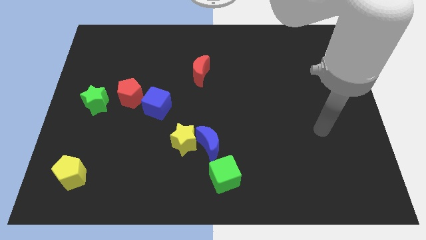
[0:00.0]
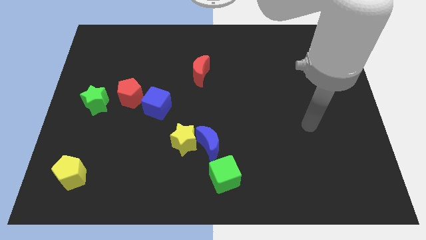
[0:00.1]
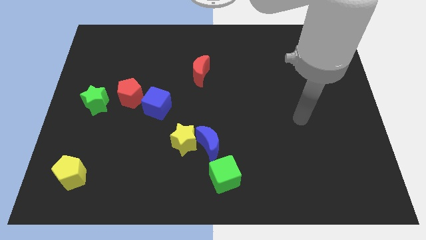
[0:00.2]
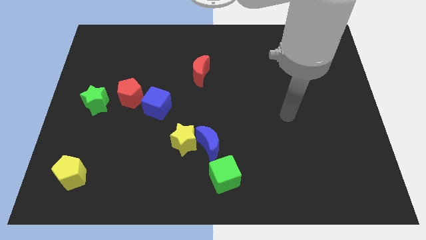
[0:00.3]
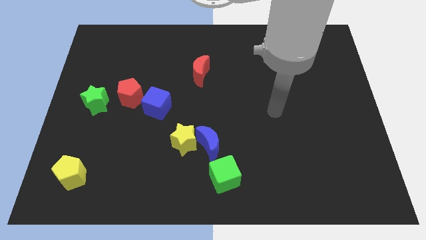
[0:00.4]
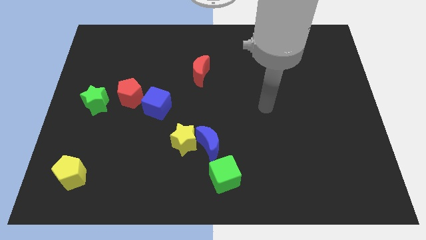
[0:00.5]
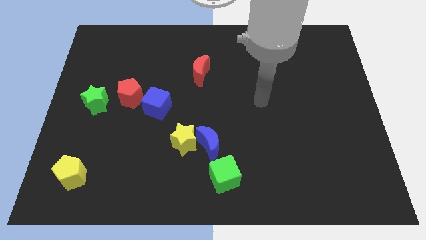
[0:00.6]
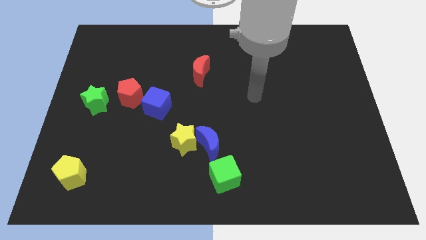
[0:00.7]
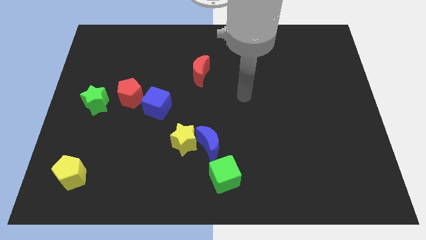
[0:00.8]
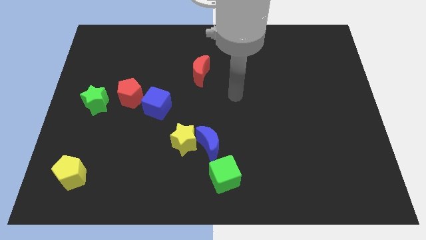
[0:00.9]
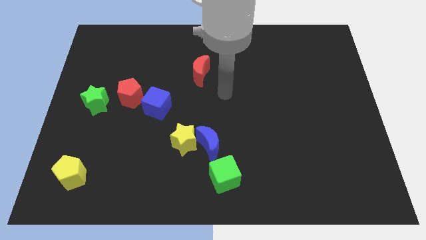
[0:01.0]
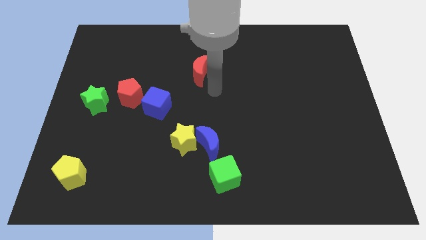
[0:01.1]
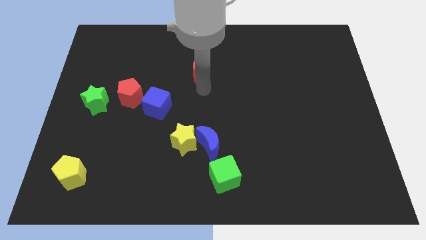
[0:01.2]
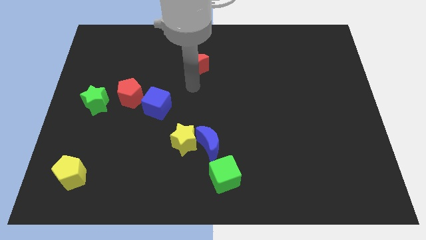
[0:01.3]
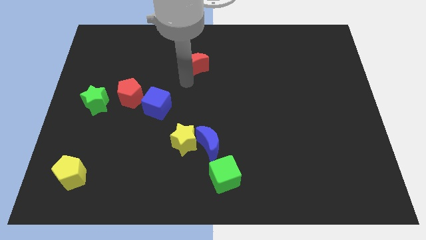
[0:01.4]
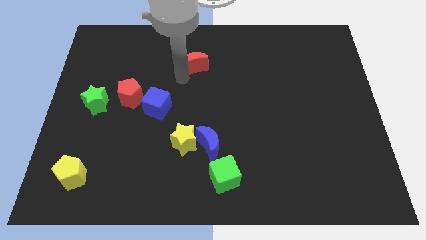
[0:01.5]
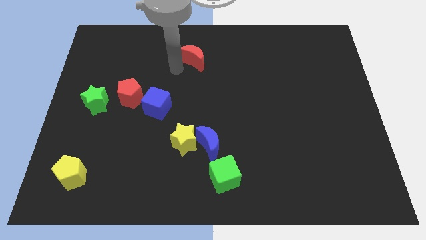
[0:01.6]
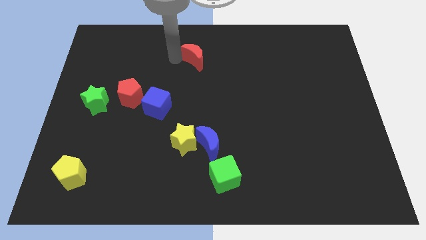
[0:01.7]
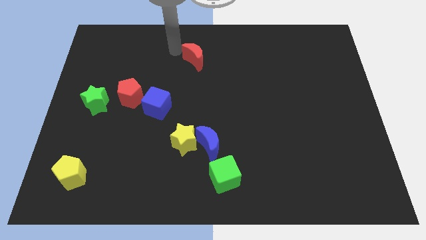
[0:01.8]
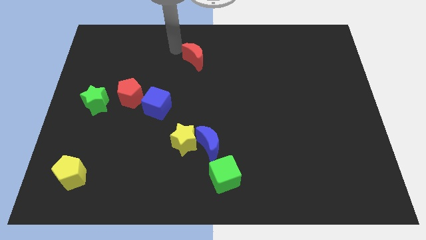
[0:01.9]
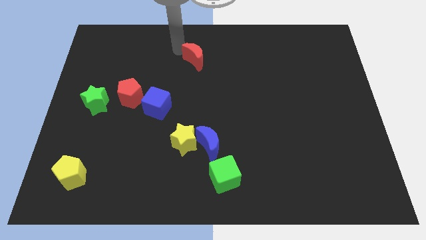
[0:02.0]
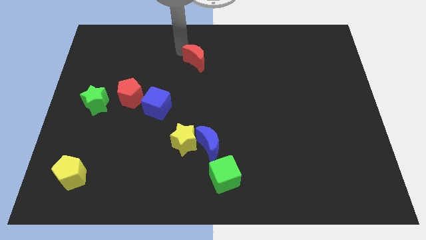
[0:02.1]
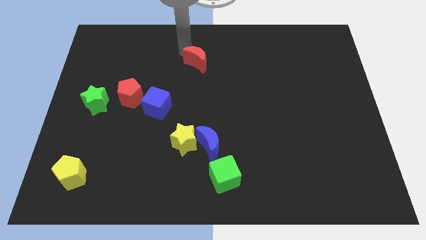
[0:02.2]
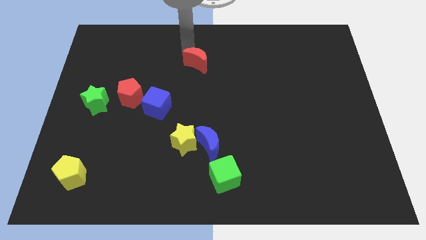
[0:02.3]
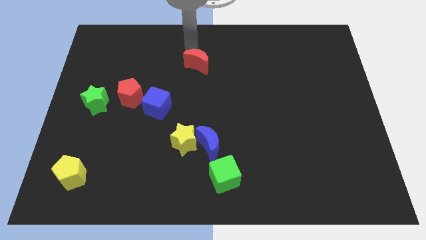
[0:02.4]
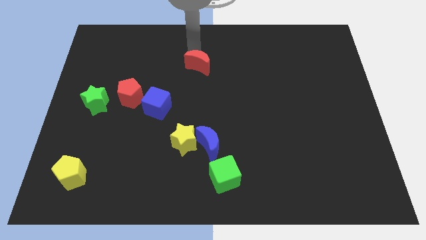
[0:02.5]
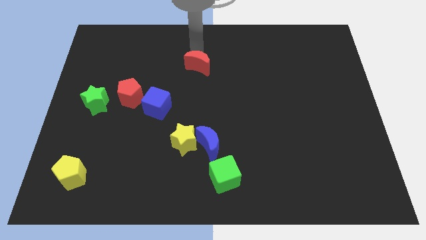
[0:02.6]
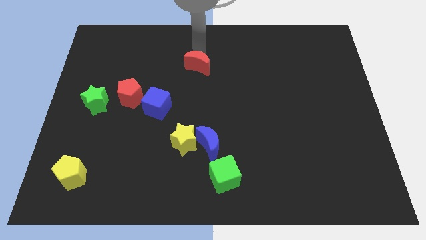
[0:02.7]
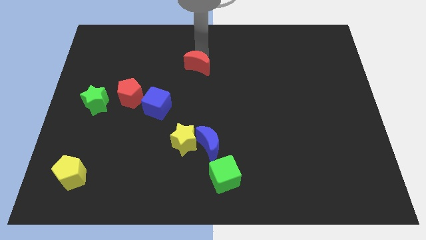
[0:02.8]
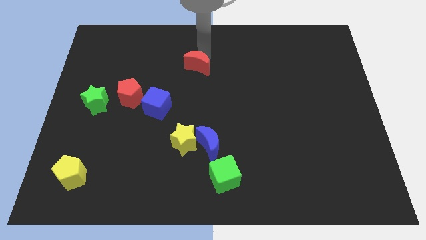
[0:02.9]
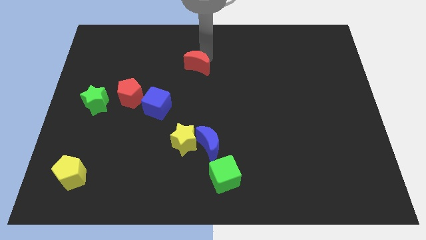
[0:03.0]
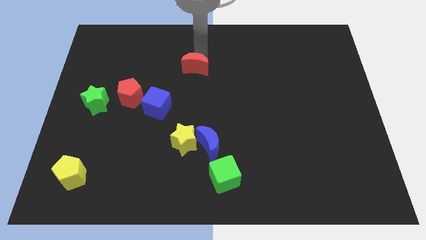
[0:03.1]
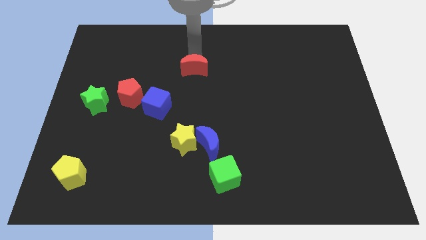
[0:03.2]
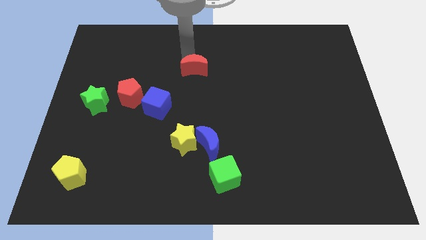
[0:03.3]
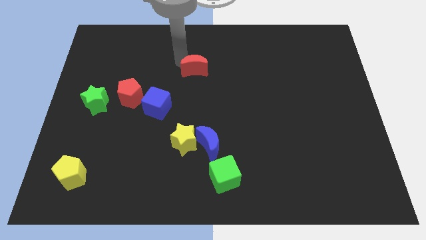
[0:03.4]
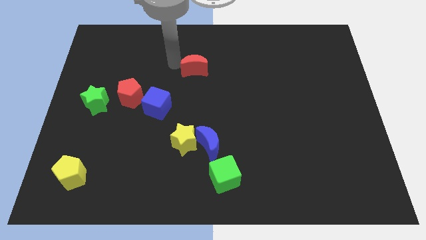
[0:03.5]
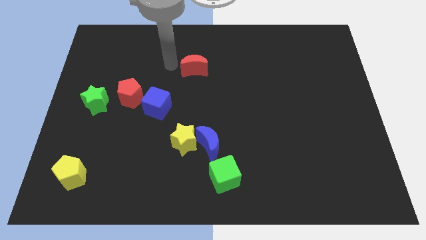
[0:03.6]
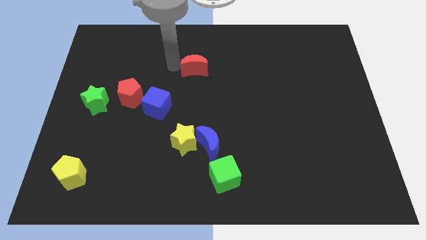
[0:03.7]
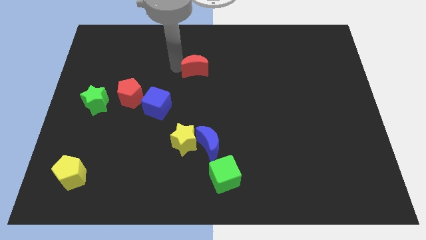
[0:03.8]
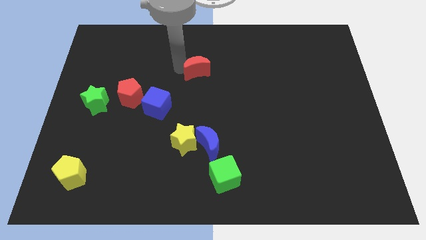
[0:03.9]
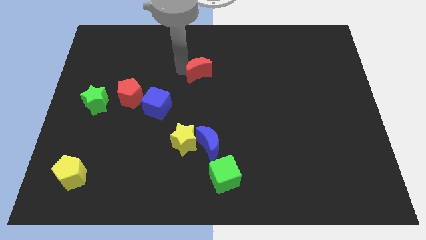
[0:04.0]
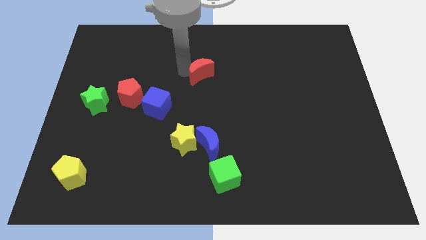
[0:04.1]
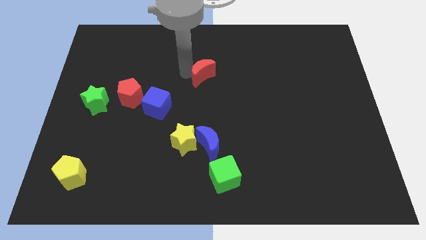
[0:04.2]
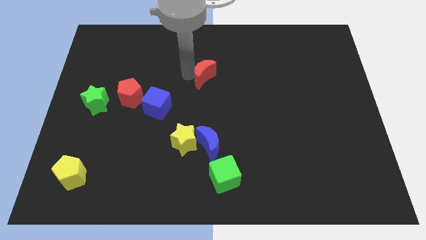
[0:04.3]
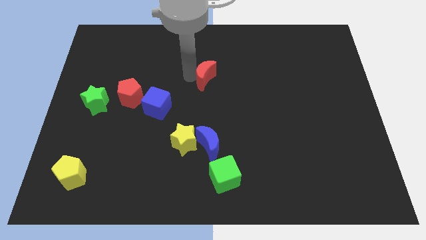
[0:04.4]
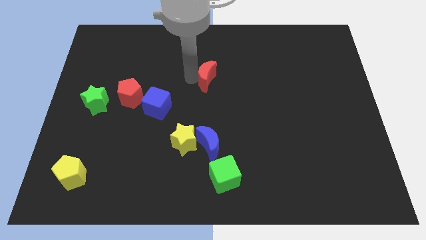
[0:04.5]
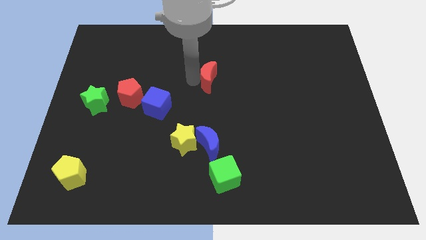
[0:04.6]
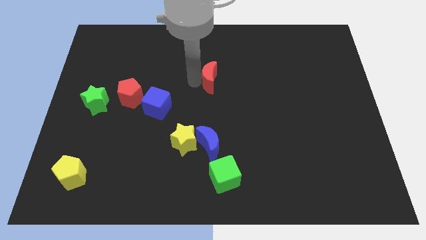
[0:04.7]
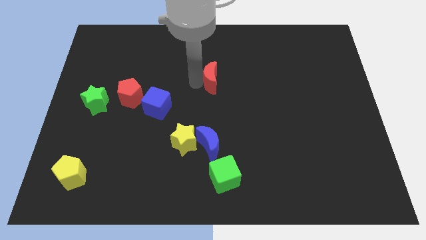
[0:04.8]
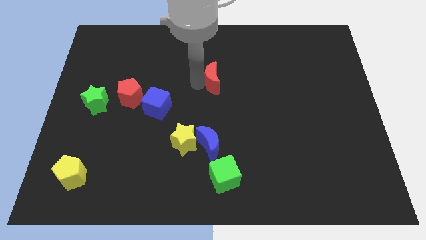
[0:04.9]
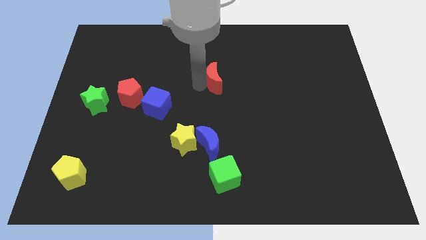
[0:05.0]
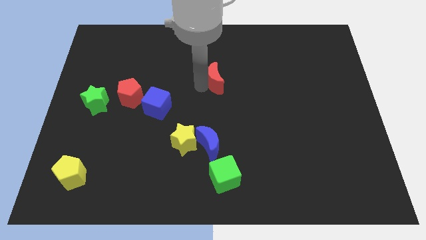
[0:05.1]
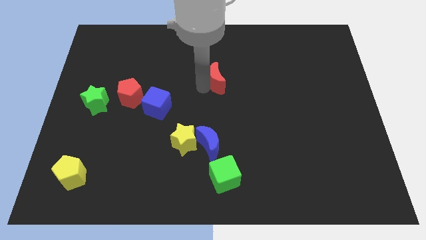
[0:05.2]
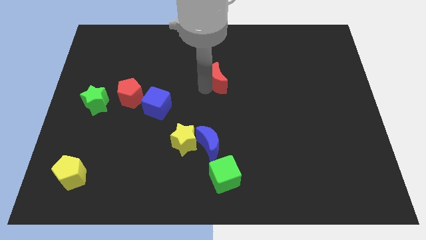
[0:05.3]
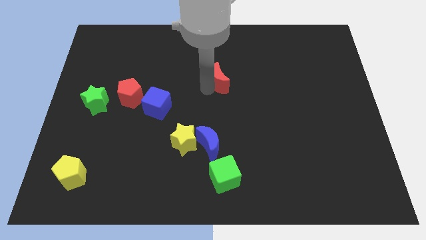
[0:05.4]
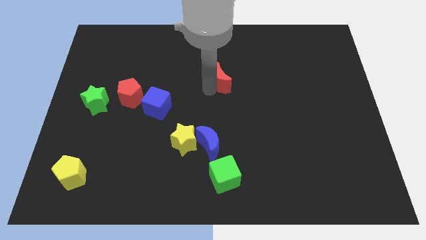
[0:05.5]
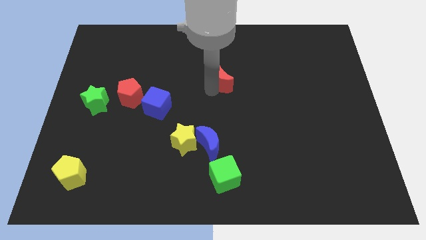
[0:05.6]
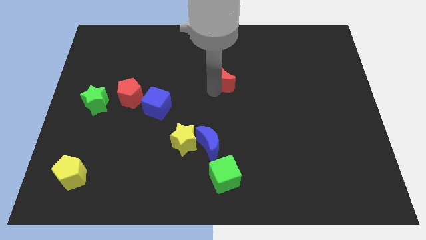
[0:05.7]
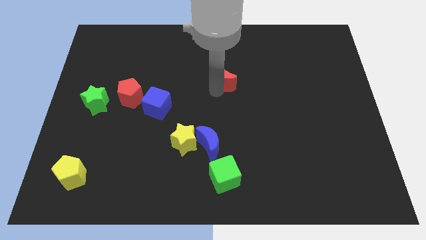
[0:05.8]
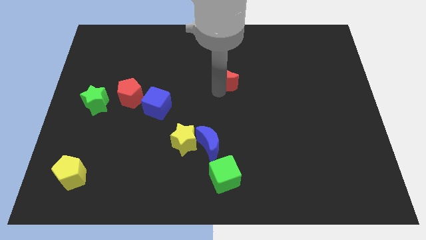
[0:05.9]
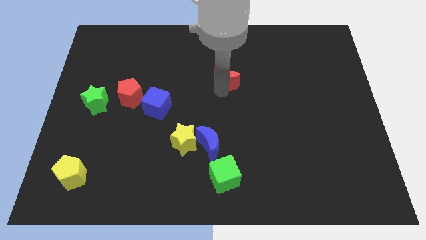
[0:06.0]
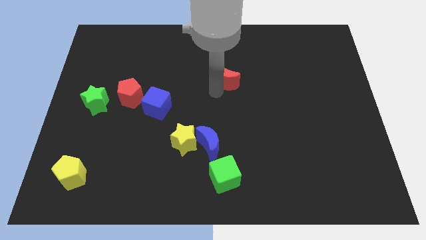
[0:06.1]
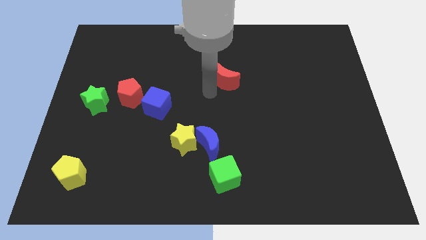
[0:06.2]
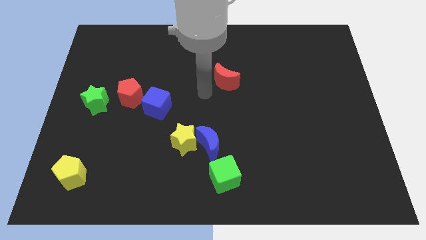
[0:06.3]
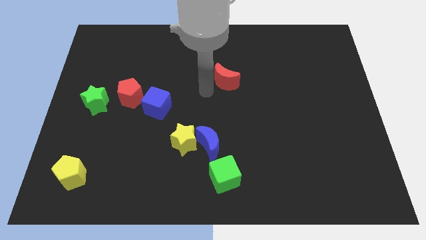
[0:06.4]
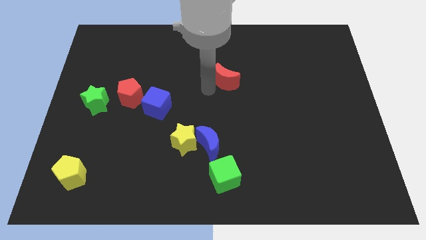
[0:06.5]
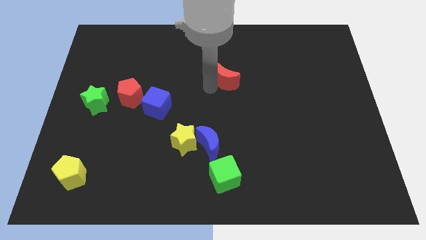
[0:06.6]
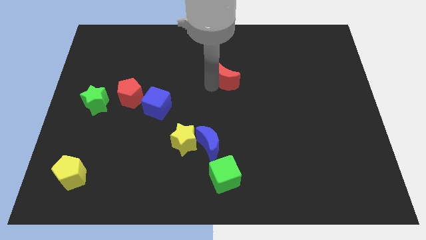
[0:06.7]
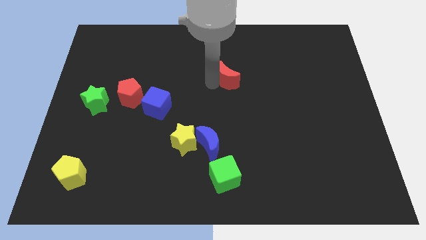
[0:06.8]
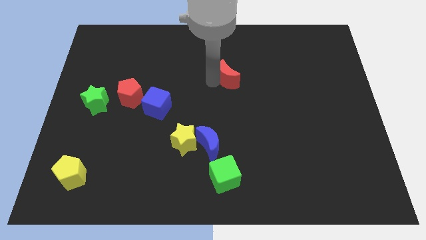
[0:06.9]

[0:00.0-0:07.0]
move the red moon somewhat to the right

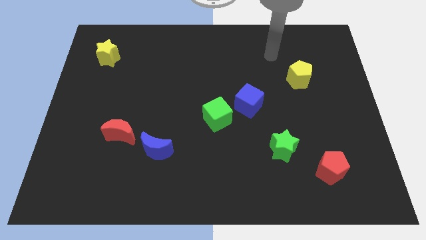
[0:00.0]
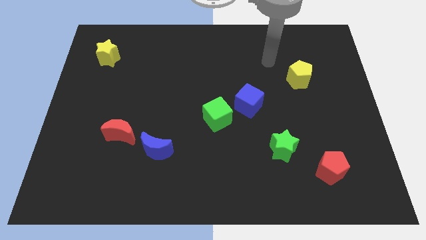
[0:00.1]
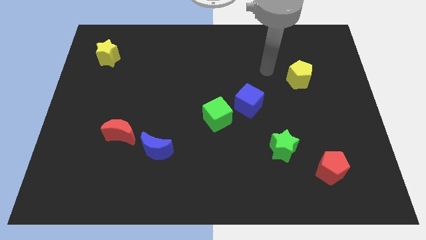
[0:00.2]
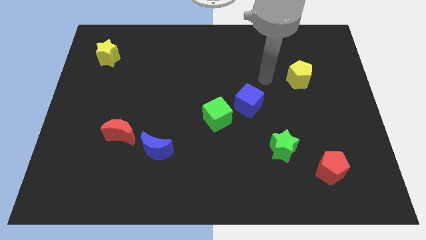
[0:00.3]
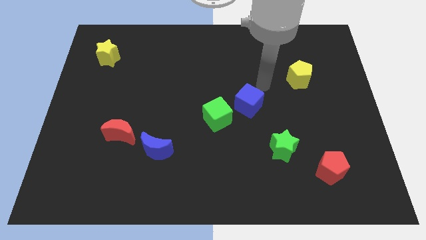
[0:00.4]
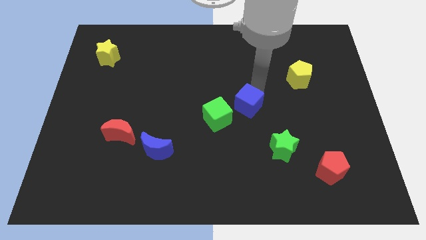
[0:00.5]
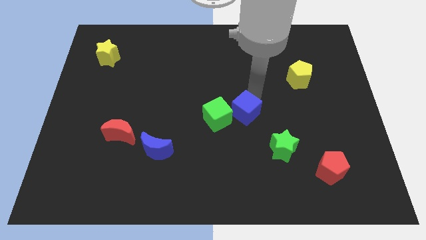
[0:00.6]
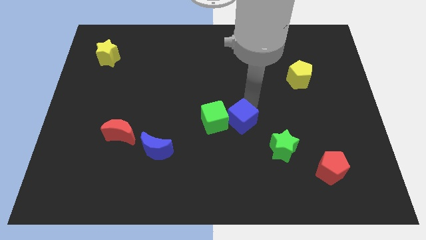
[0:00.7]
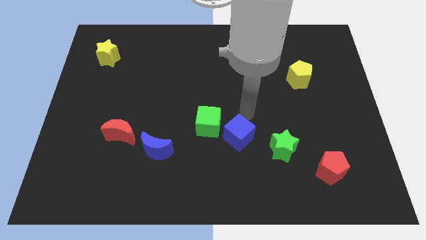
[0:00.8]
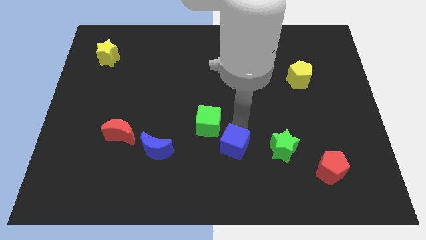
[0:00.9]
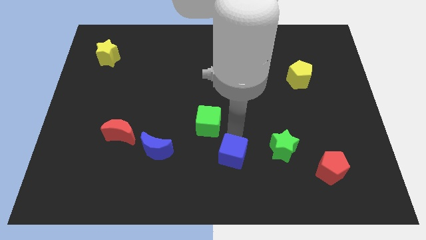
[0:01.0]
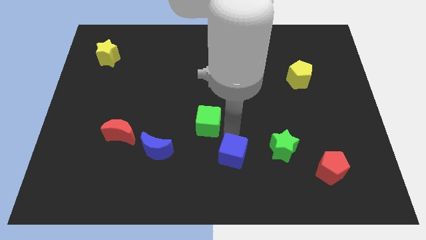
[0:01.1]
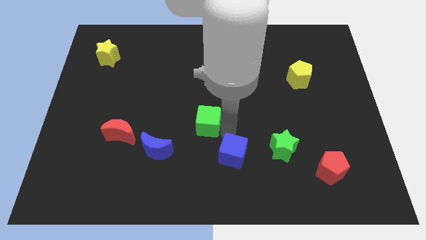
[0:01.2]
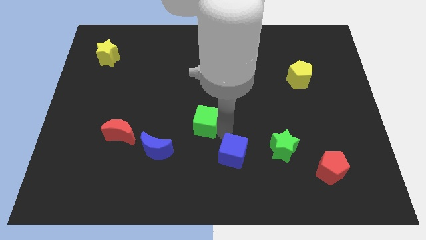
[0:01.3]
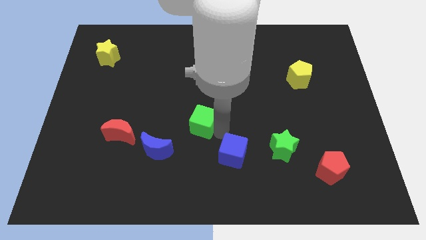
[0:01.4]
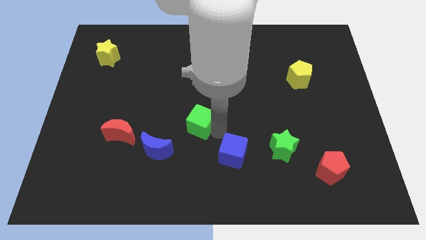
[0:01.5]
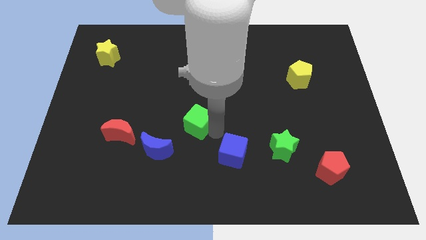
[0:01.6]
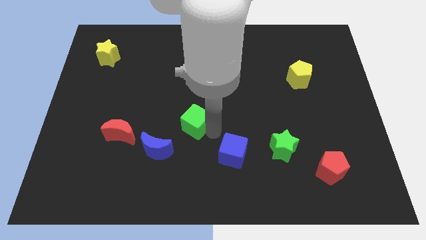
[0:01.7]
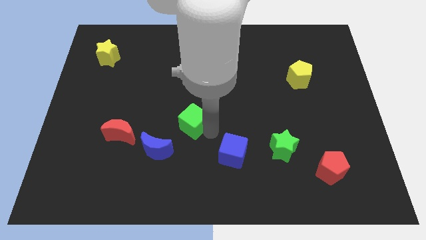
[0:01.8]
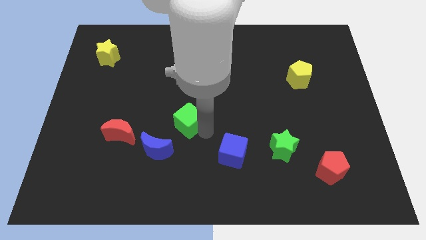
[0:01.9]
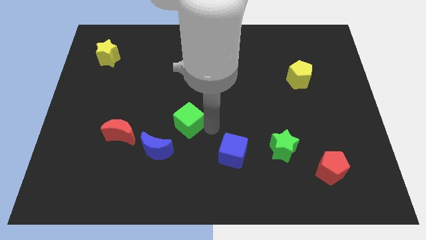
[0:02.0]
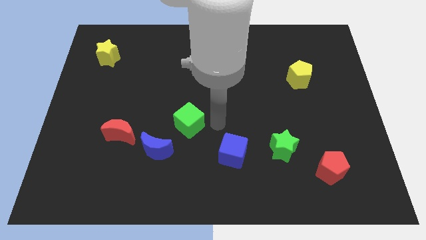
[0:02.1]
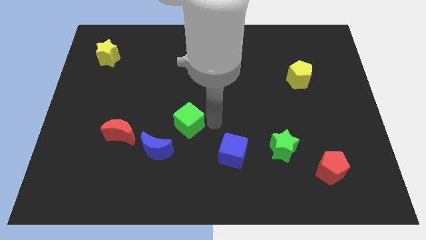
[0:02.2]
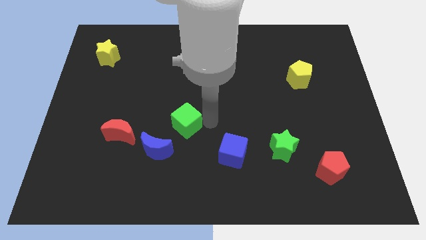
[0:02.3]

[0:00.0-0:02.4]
slightly push the green cube to the left
